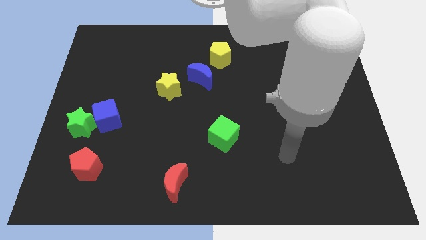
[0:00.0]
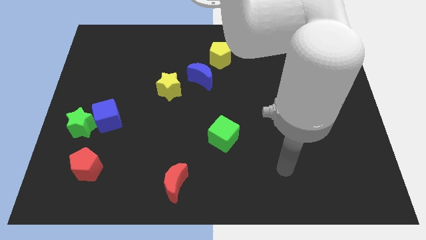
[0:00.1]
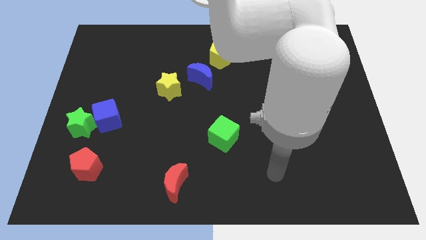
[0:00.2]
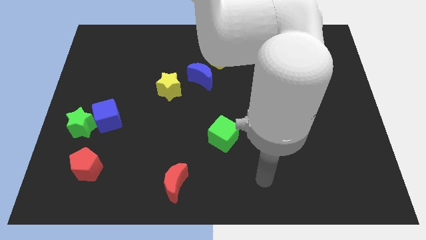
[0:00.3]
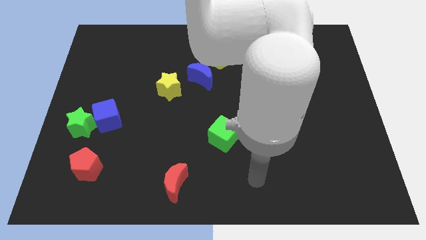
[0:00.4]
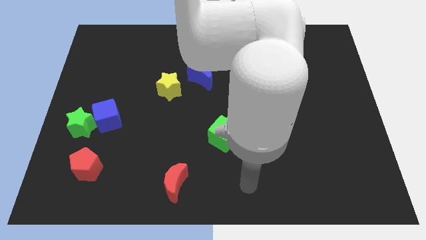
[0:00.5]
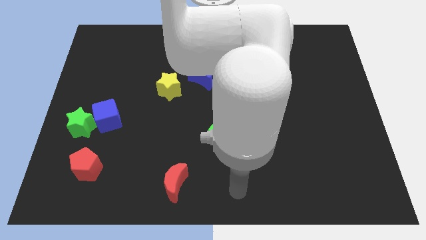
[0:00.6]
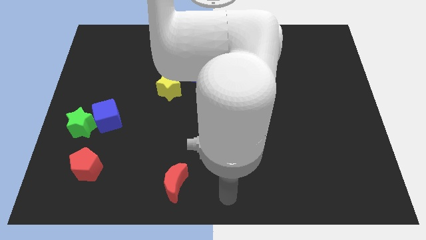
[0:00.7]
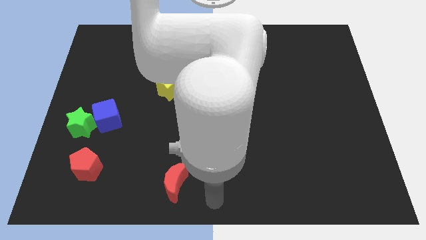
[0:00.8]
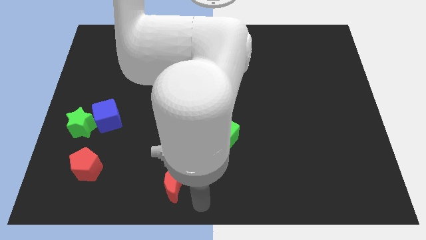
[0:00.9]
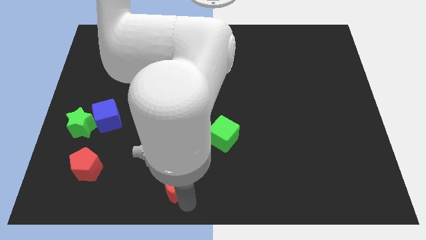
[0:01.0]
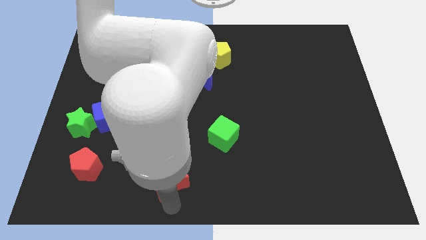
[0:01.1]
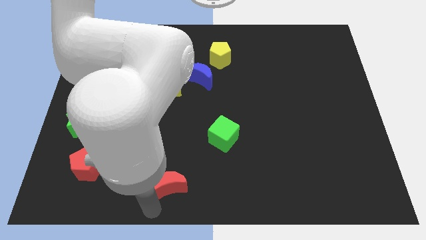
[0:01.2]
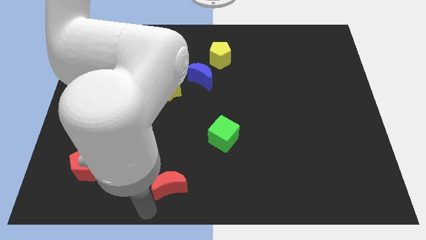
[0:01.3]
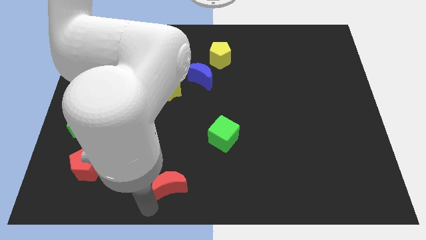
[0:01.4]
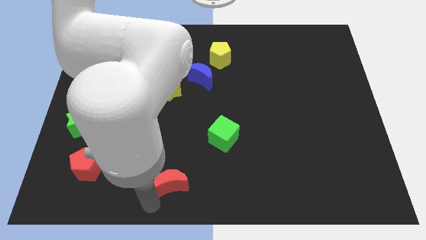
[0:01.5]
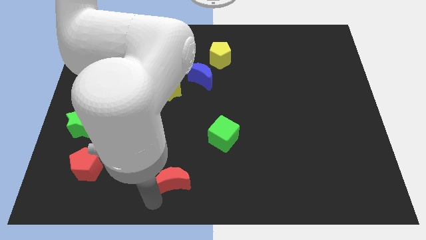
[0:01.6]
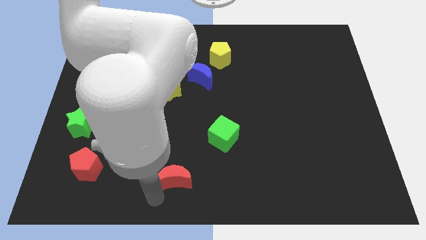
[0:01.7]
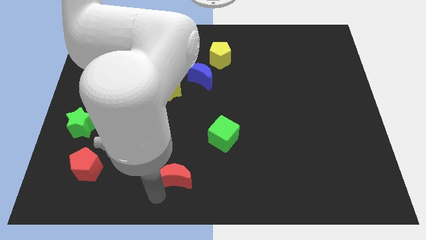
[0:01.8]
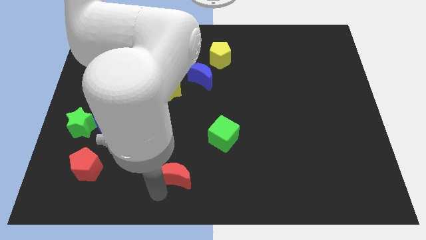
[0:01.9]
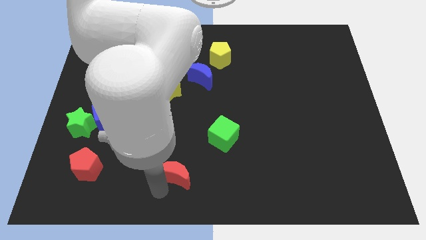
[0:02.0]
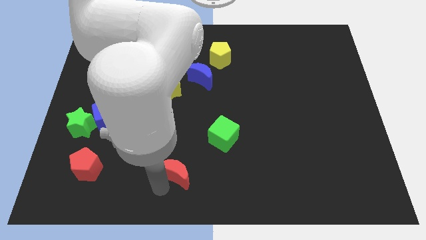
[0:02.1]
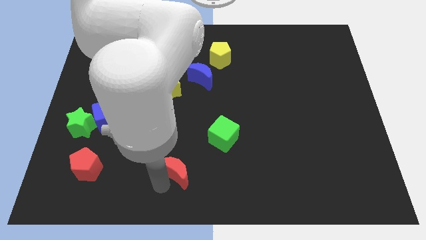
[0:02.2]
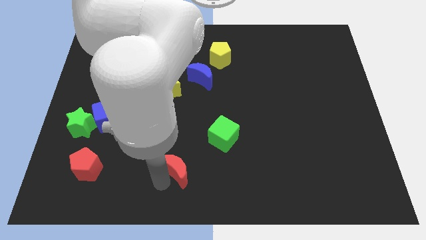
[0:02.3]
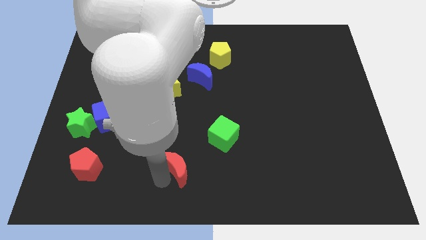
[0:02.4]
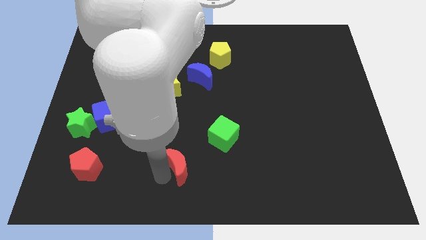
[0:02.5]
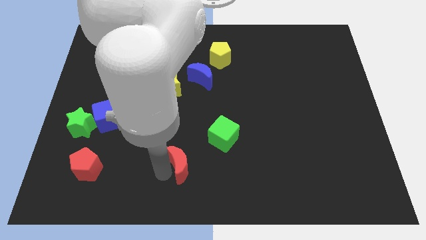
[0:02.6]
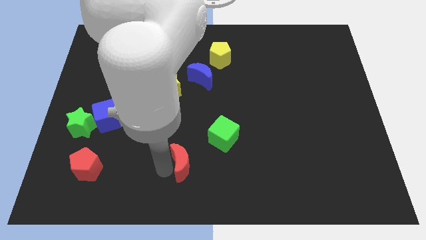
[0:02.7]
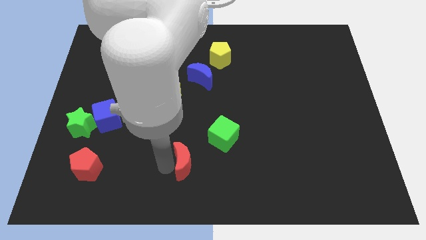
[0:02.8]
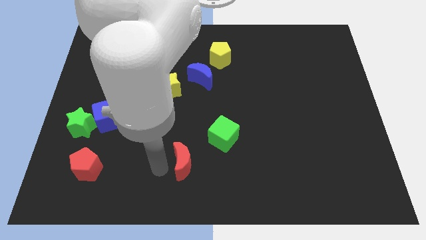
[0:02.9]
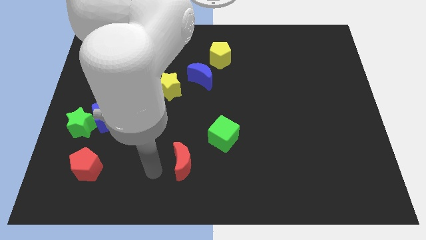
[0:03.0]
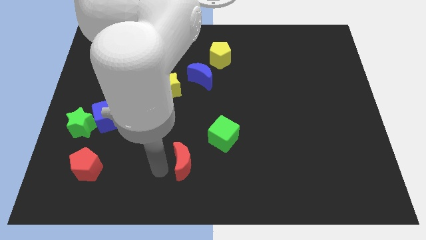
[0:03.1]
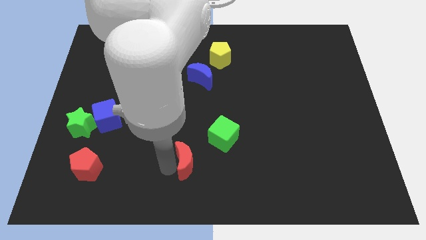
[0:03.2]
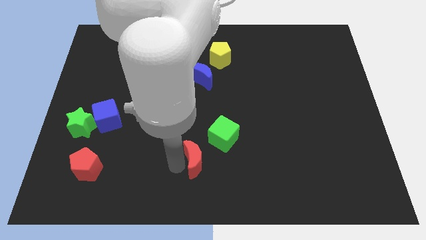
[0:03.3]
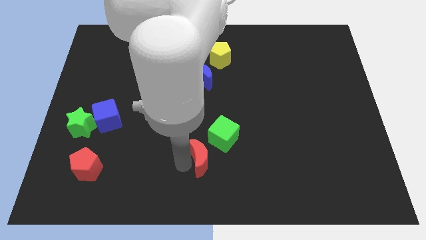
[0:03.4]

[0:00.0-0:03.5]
move the red moon slightly diagonally upwards and to the right

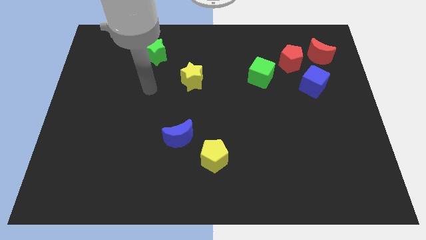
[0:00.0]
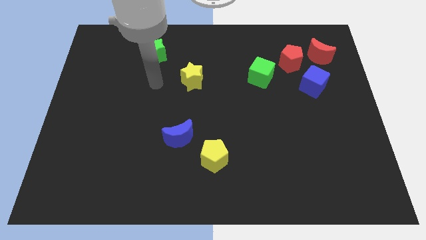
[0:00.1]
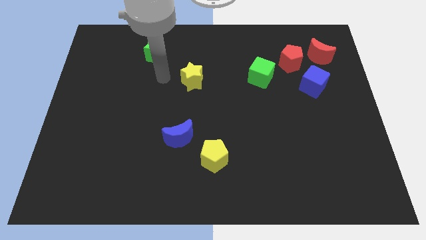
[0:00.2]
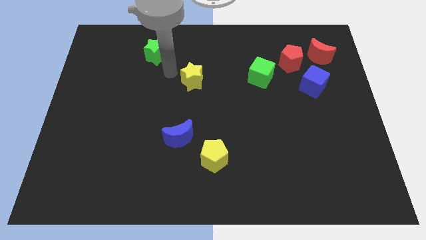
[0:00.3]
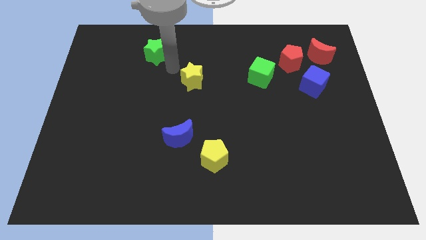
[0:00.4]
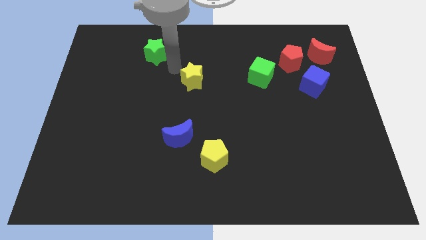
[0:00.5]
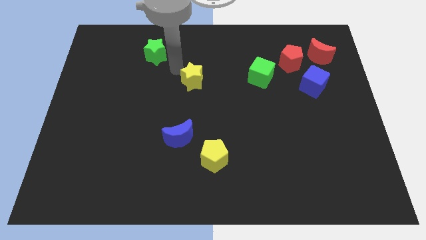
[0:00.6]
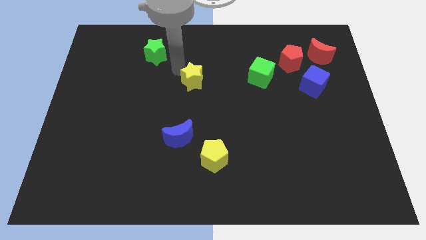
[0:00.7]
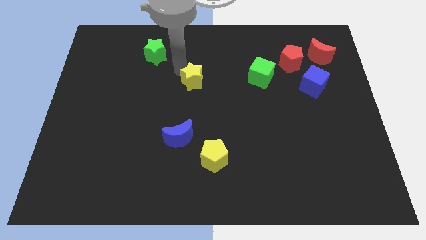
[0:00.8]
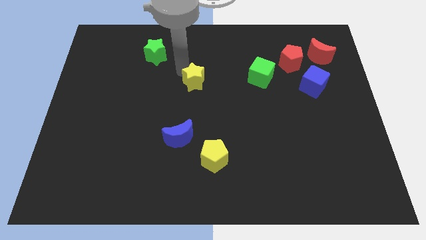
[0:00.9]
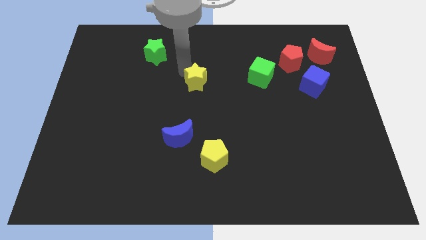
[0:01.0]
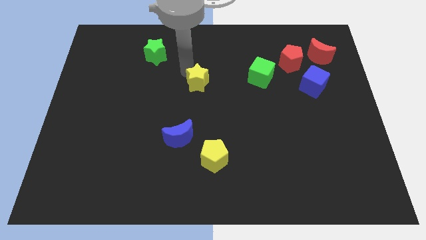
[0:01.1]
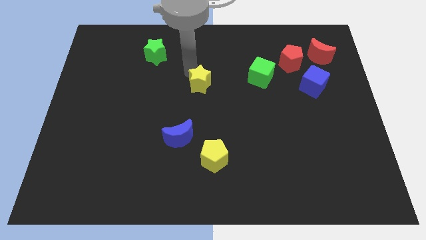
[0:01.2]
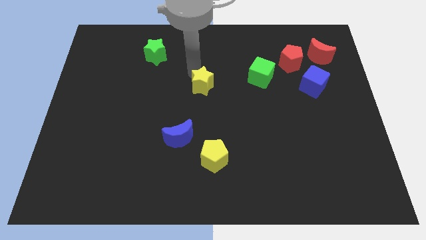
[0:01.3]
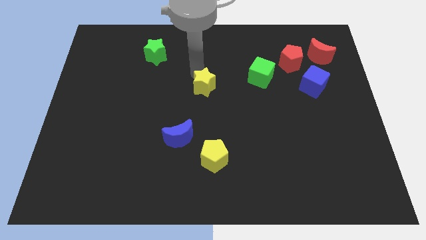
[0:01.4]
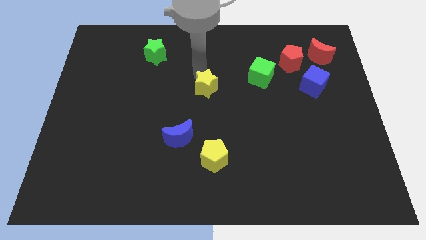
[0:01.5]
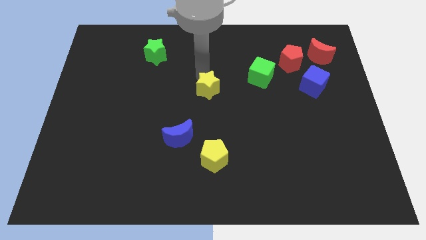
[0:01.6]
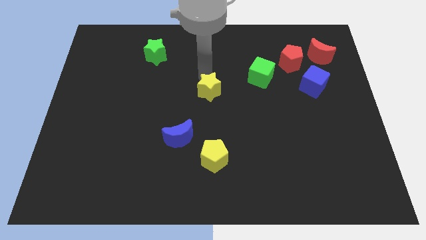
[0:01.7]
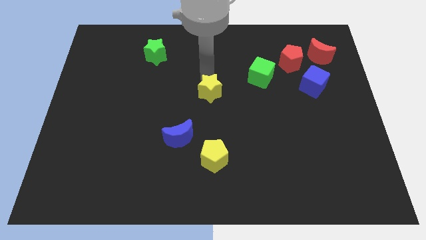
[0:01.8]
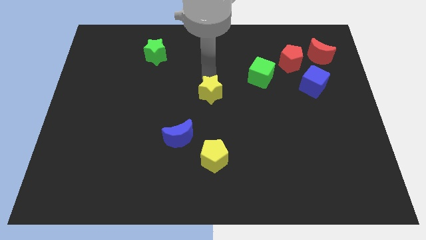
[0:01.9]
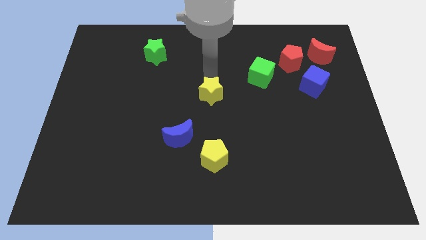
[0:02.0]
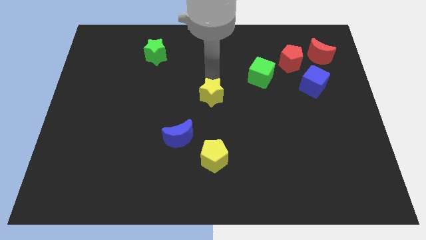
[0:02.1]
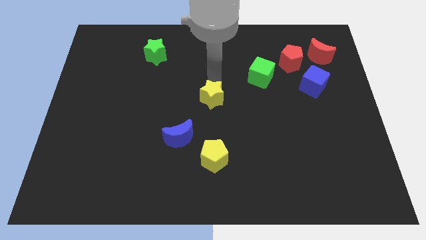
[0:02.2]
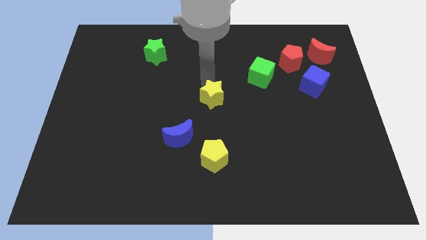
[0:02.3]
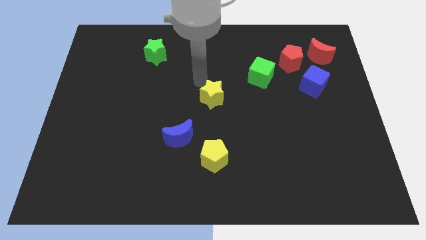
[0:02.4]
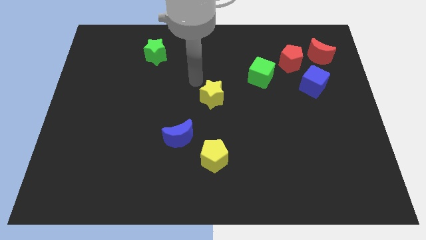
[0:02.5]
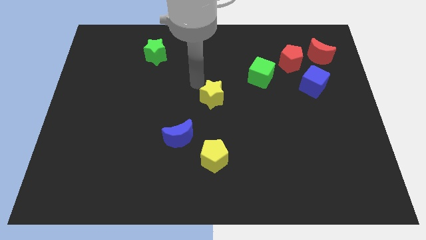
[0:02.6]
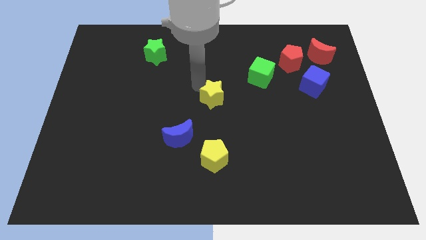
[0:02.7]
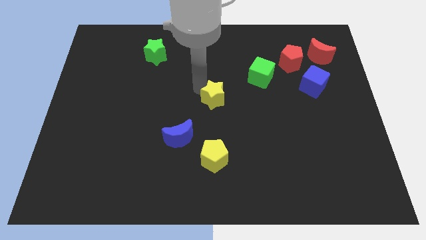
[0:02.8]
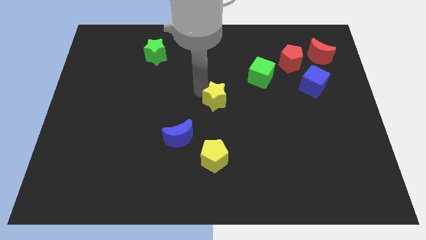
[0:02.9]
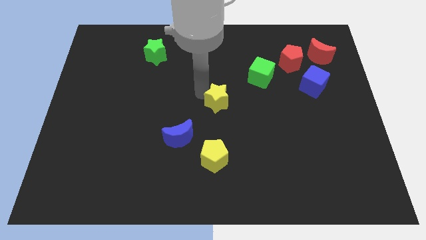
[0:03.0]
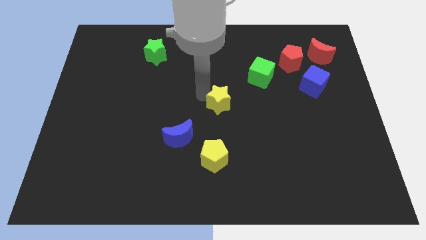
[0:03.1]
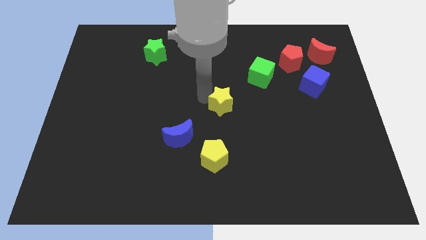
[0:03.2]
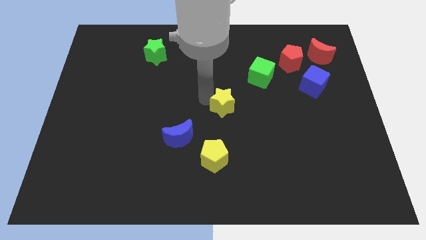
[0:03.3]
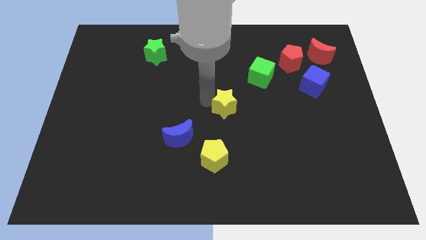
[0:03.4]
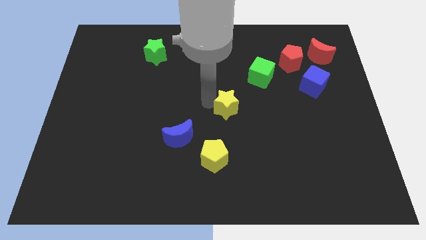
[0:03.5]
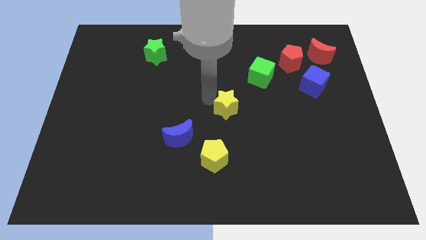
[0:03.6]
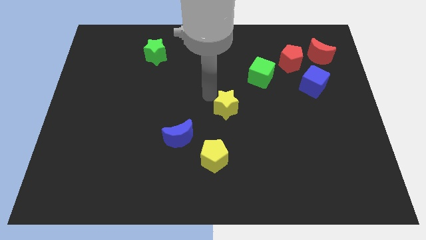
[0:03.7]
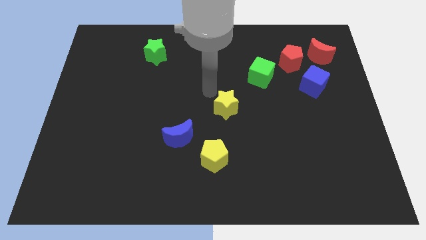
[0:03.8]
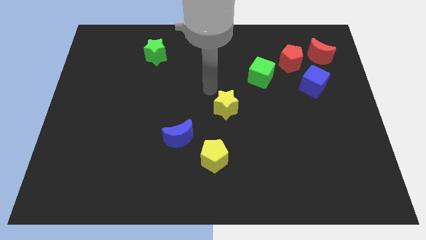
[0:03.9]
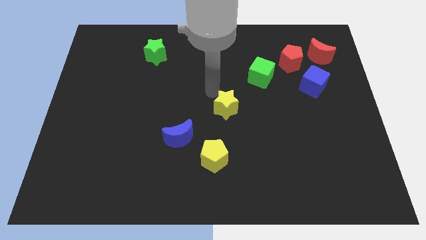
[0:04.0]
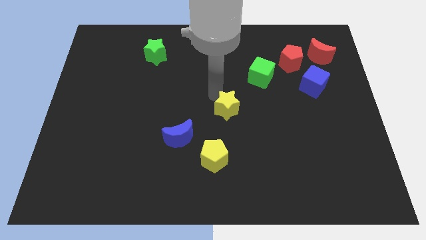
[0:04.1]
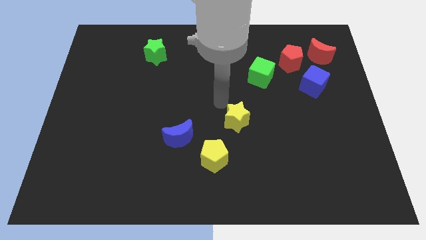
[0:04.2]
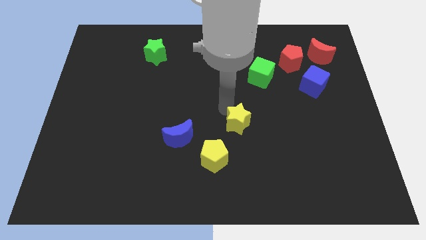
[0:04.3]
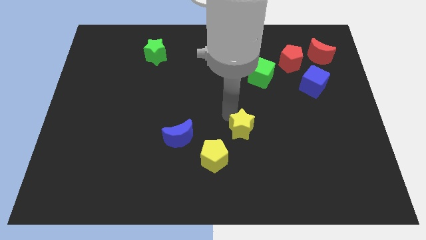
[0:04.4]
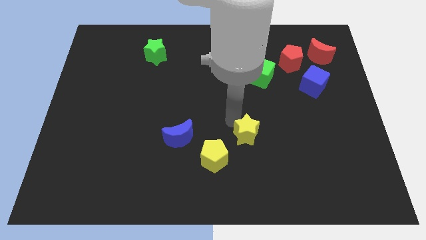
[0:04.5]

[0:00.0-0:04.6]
move the yellow star diagonally downwards and right

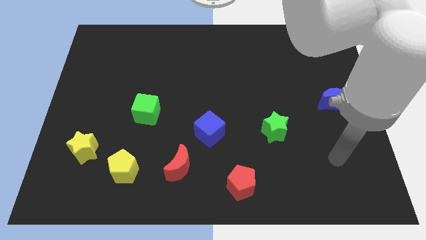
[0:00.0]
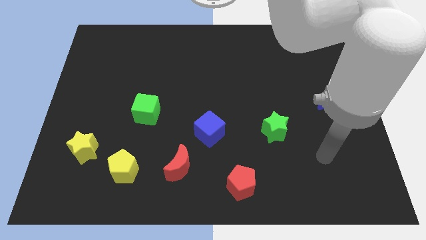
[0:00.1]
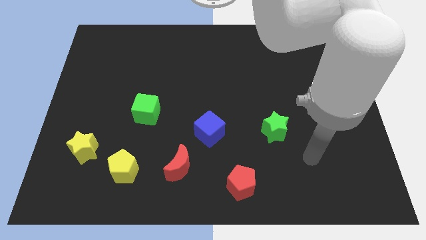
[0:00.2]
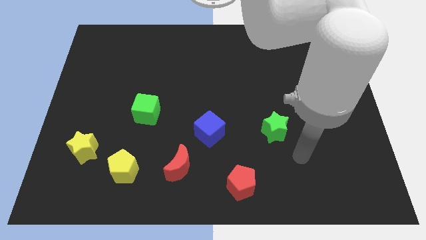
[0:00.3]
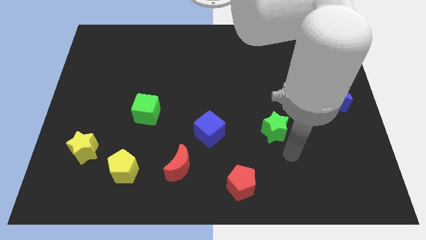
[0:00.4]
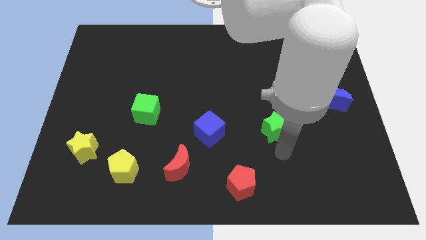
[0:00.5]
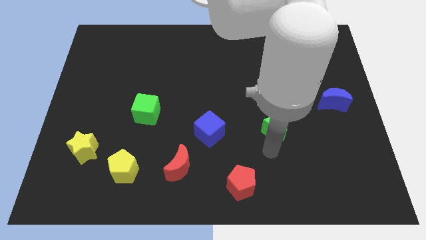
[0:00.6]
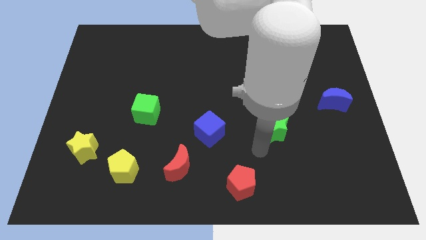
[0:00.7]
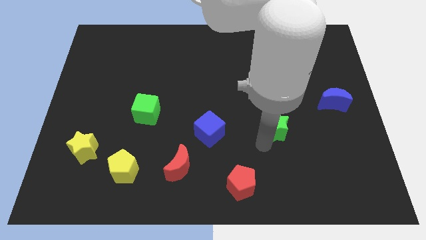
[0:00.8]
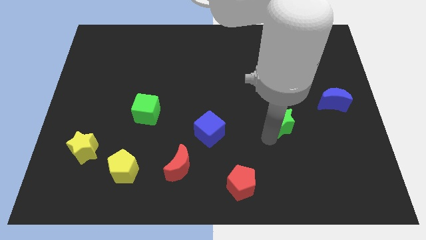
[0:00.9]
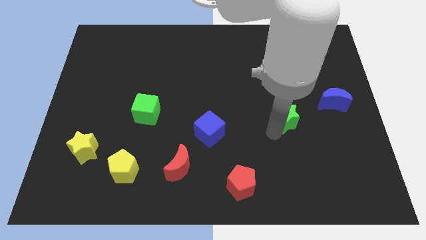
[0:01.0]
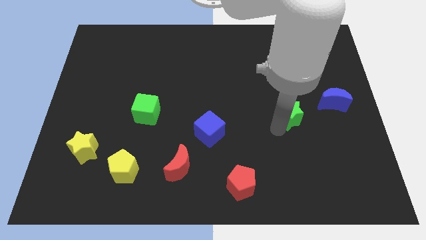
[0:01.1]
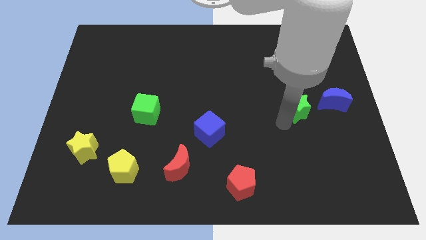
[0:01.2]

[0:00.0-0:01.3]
slightly push the green star upwards and to the right diagonally
